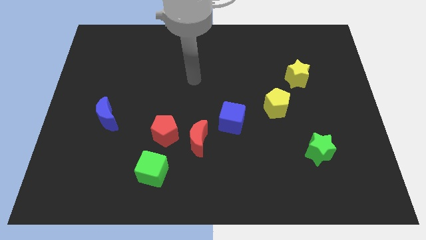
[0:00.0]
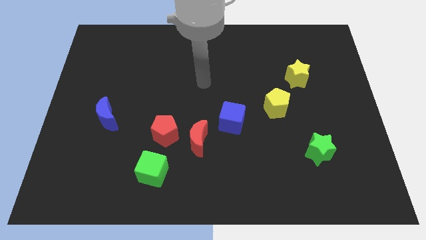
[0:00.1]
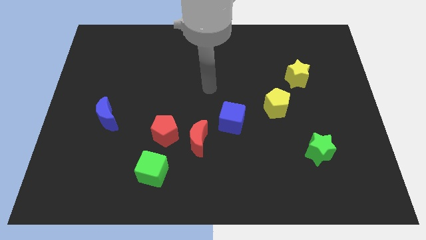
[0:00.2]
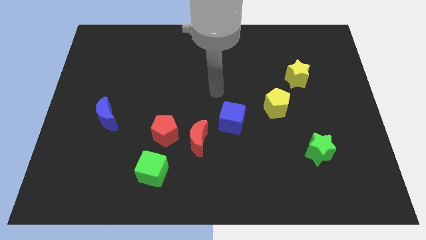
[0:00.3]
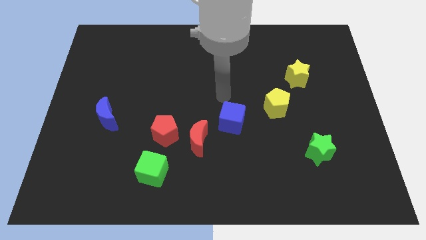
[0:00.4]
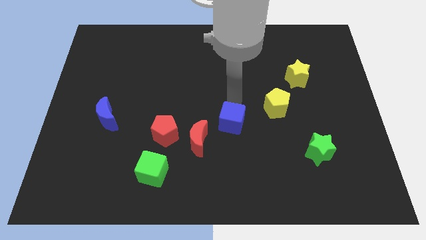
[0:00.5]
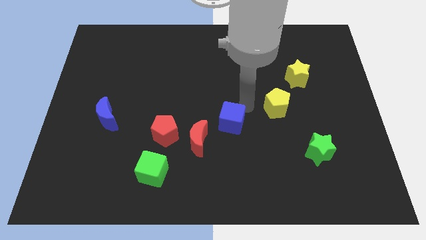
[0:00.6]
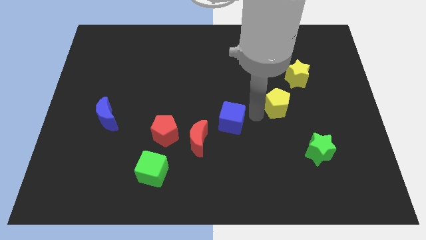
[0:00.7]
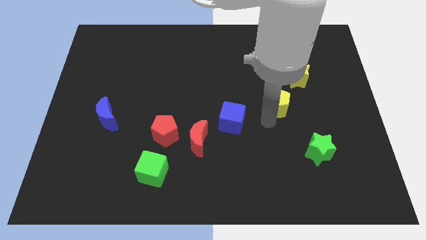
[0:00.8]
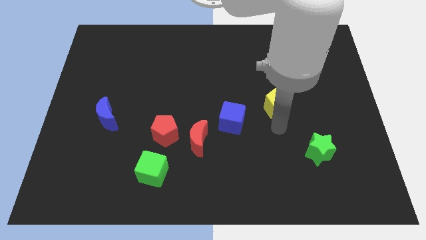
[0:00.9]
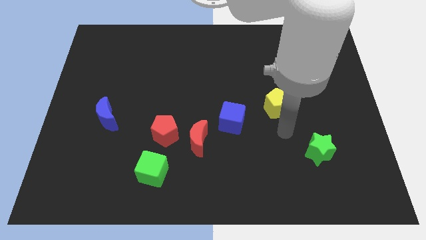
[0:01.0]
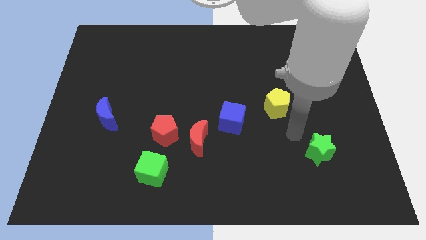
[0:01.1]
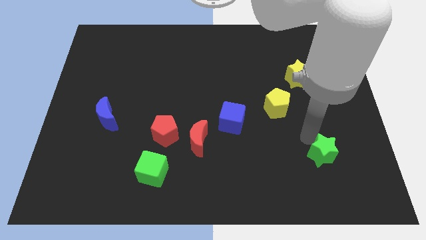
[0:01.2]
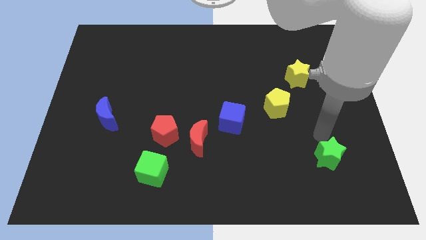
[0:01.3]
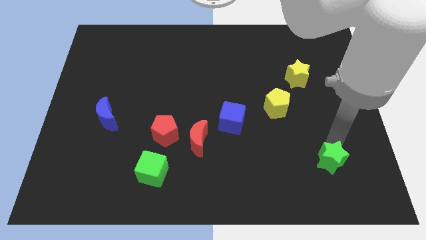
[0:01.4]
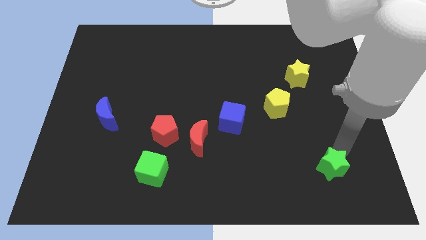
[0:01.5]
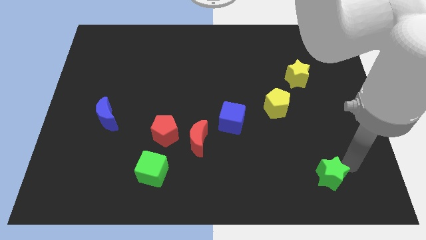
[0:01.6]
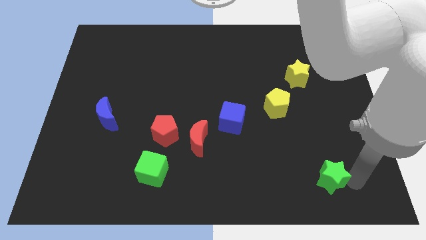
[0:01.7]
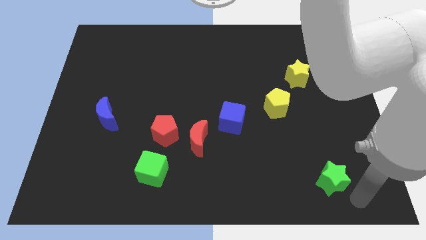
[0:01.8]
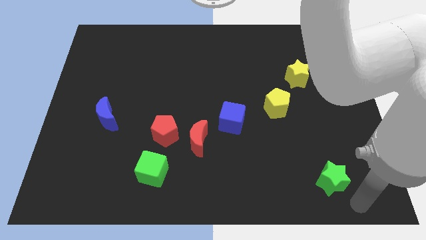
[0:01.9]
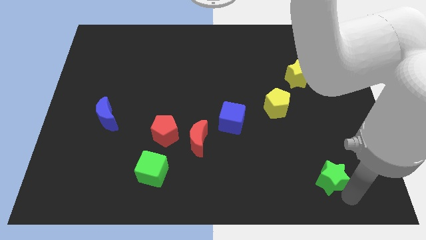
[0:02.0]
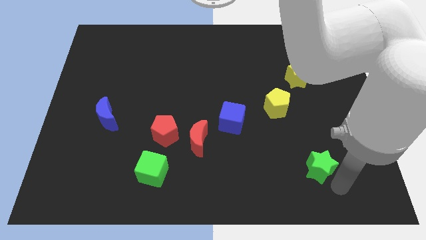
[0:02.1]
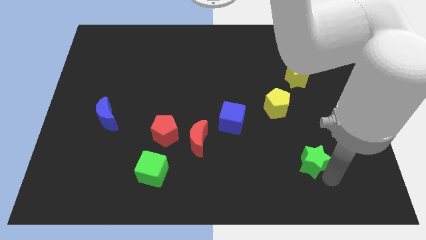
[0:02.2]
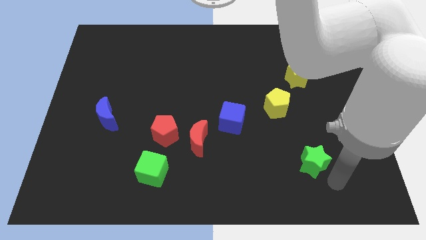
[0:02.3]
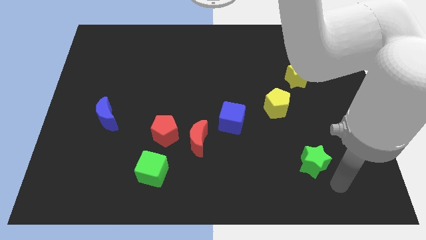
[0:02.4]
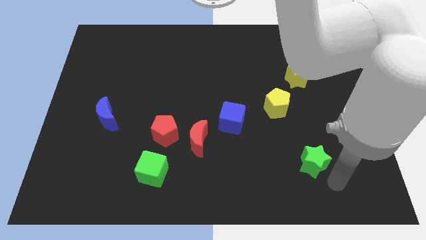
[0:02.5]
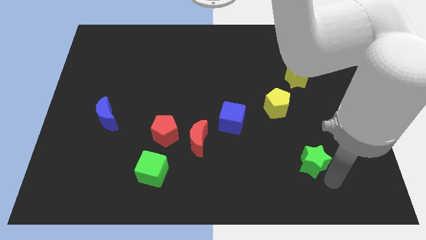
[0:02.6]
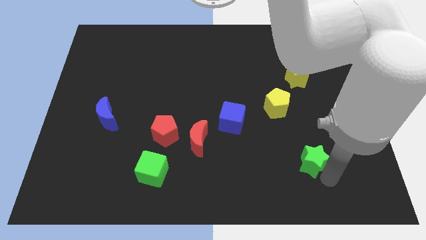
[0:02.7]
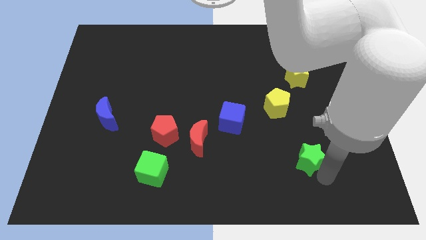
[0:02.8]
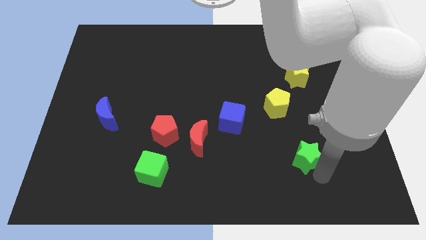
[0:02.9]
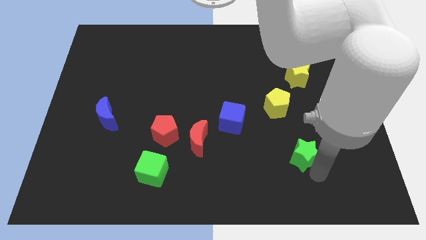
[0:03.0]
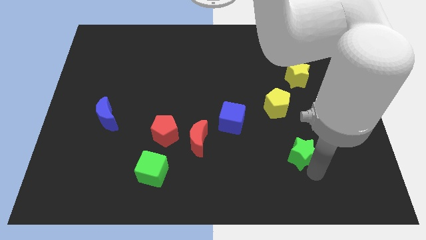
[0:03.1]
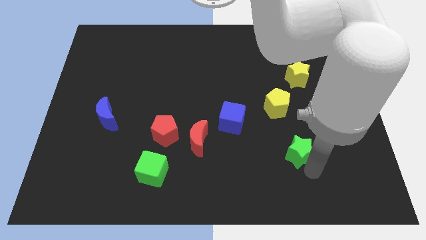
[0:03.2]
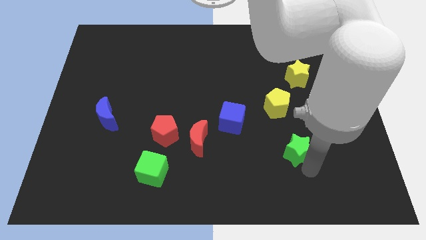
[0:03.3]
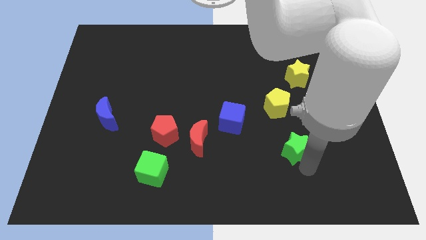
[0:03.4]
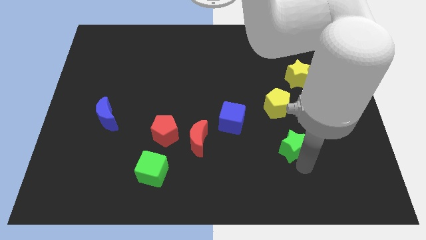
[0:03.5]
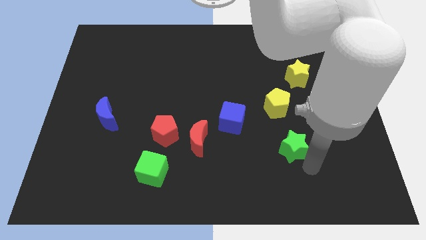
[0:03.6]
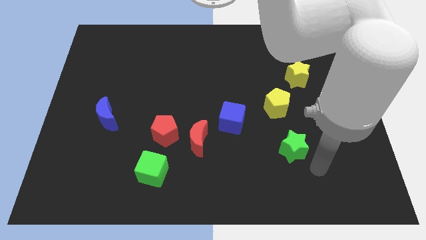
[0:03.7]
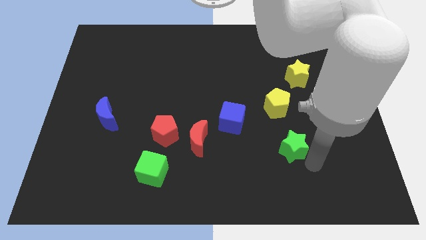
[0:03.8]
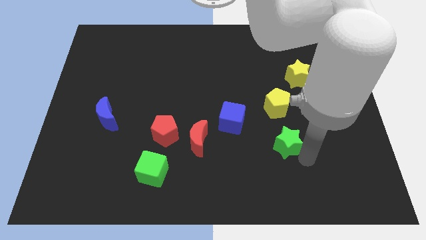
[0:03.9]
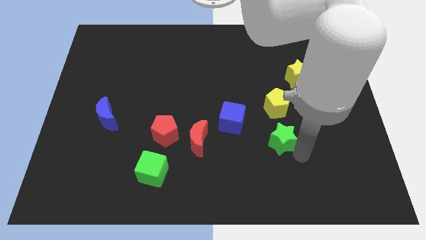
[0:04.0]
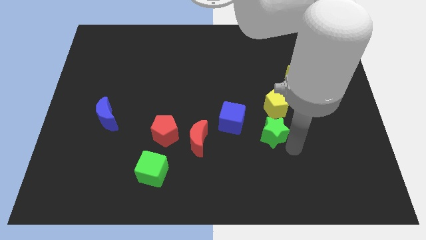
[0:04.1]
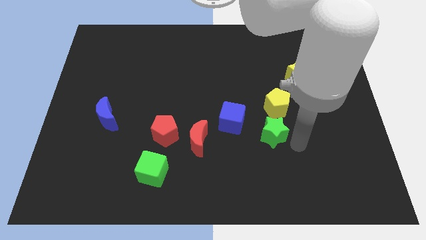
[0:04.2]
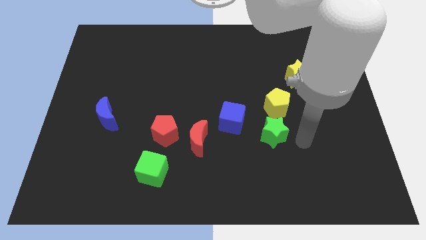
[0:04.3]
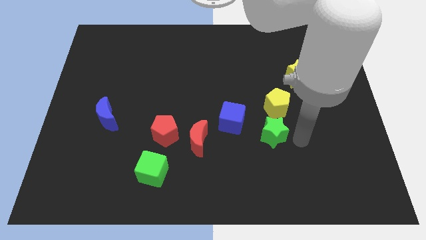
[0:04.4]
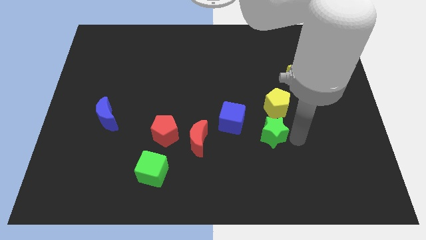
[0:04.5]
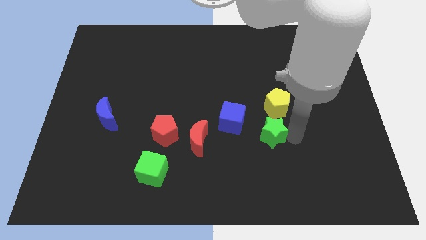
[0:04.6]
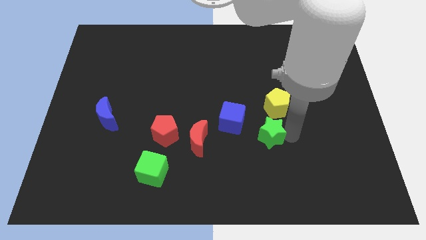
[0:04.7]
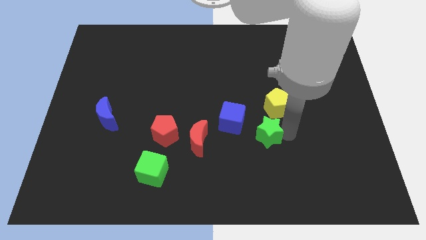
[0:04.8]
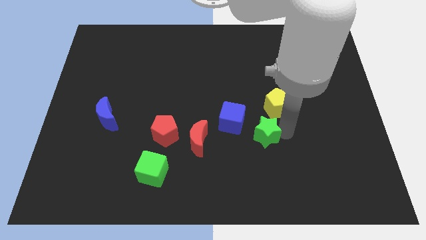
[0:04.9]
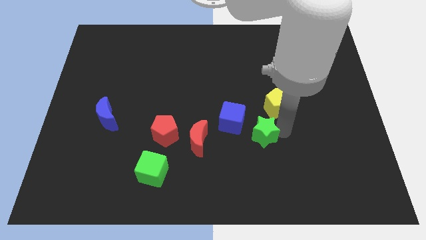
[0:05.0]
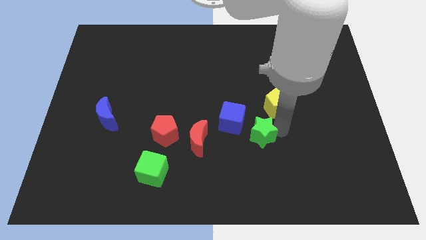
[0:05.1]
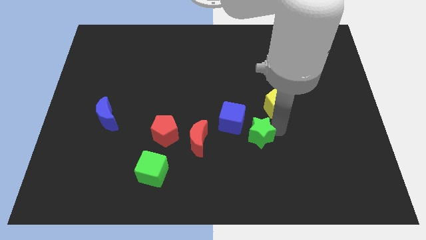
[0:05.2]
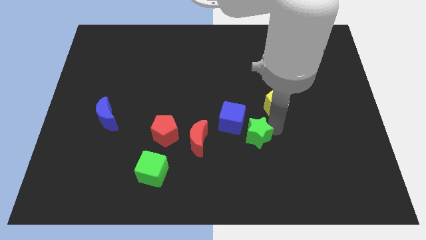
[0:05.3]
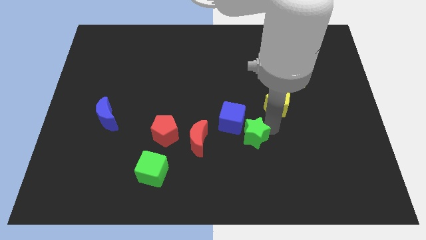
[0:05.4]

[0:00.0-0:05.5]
push the green star close to the blue cube

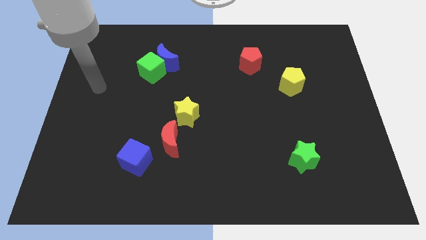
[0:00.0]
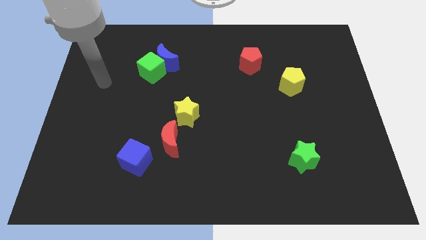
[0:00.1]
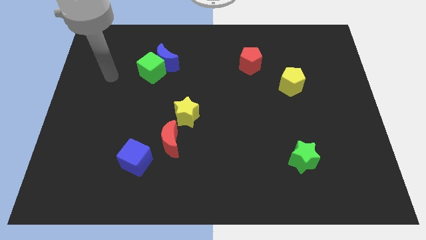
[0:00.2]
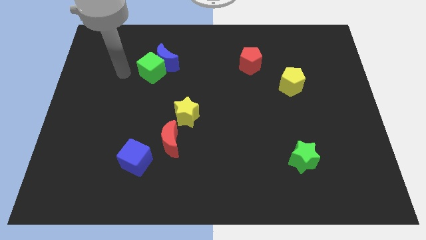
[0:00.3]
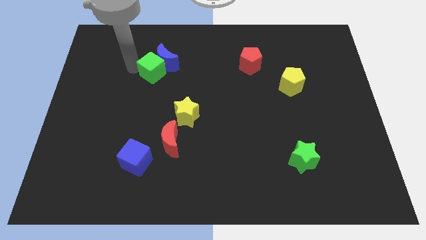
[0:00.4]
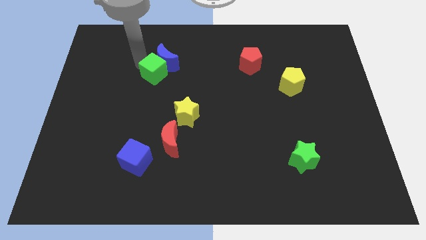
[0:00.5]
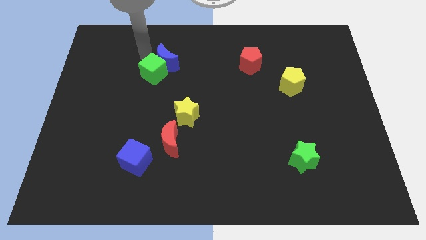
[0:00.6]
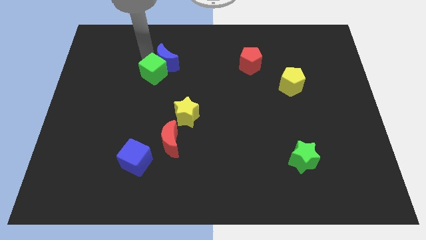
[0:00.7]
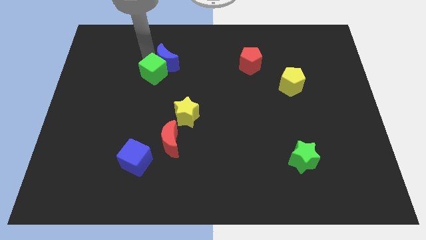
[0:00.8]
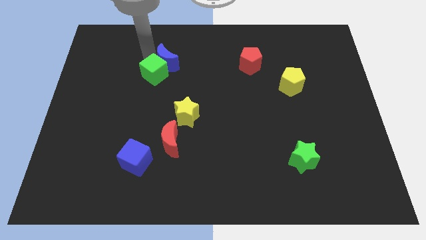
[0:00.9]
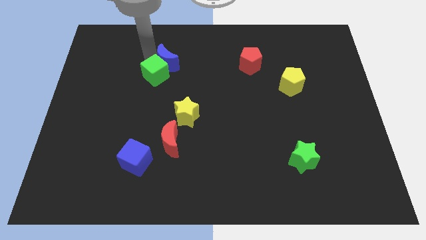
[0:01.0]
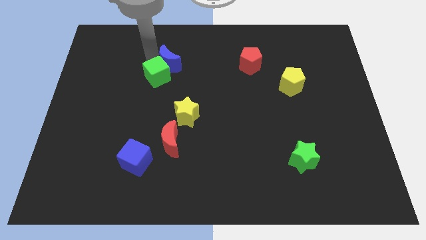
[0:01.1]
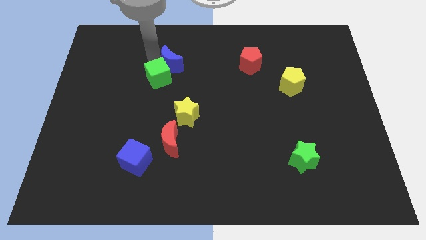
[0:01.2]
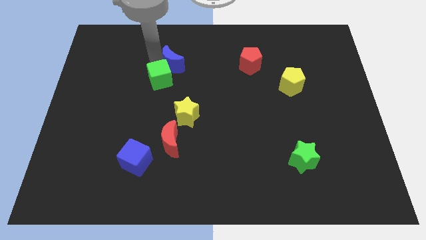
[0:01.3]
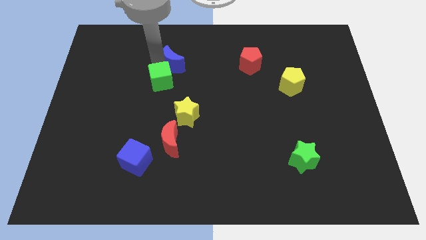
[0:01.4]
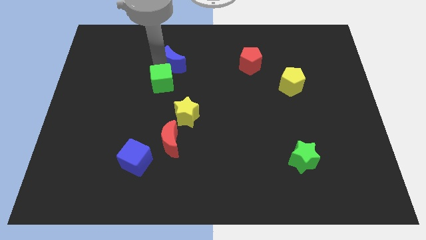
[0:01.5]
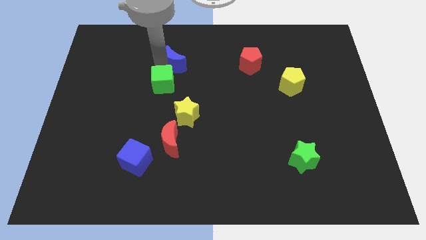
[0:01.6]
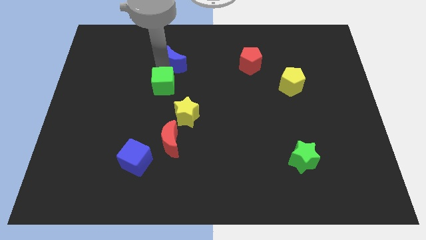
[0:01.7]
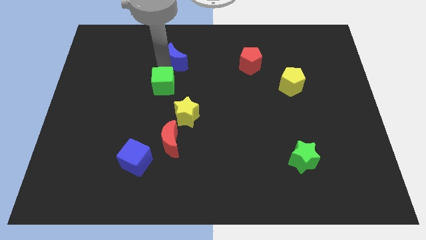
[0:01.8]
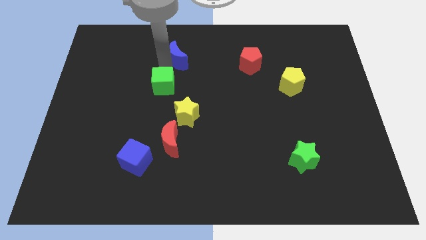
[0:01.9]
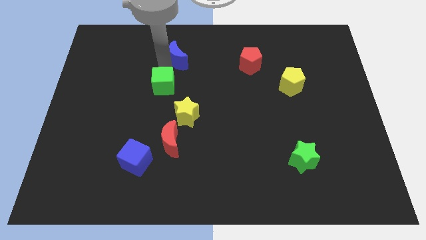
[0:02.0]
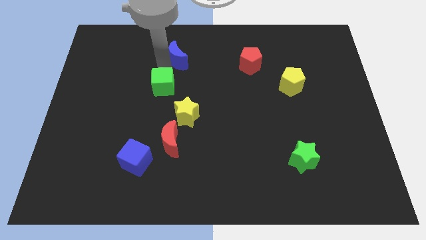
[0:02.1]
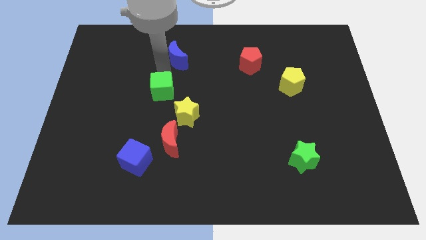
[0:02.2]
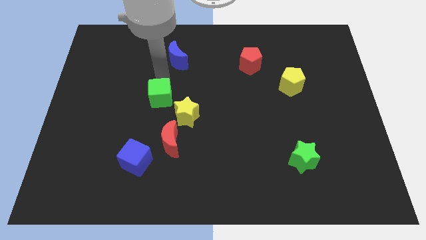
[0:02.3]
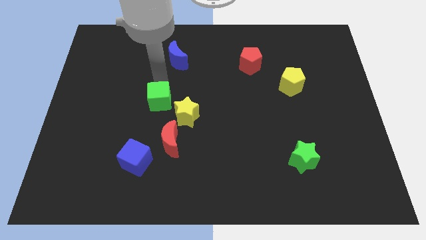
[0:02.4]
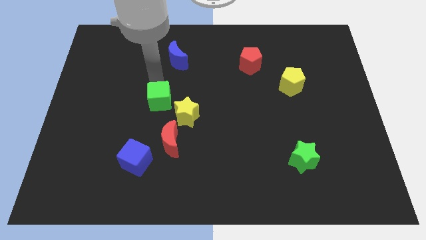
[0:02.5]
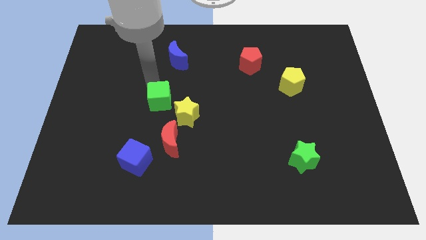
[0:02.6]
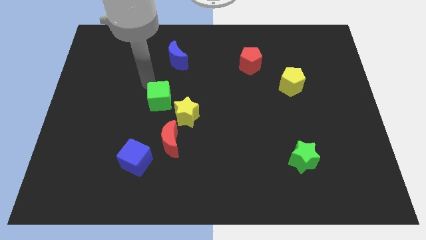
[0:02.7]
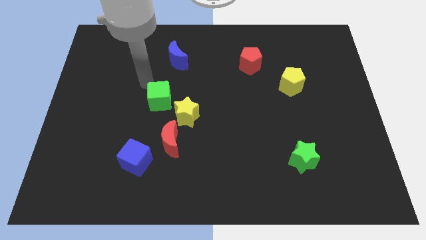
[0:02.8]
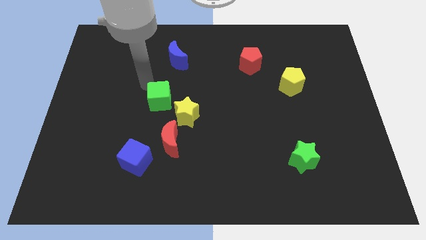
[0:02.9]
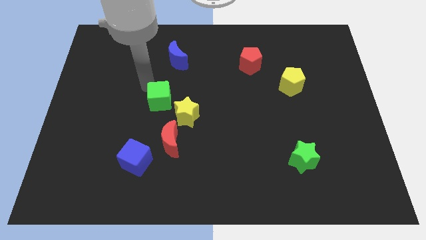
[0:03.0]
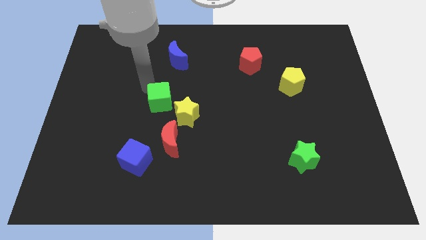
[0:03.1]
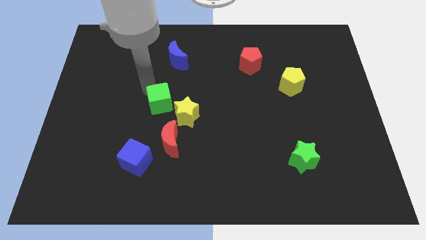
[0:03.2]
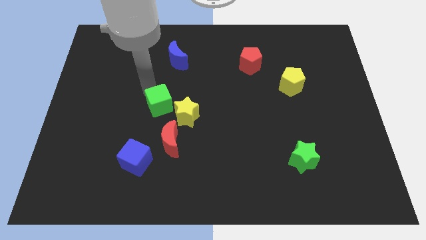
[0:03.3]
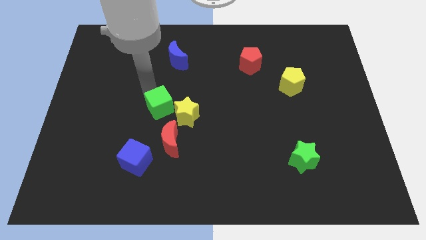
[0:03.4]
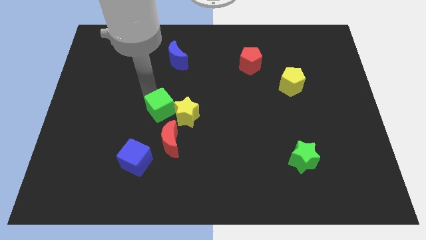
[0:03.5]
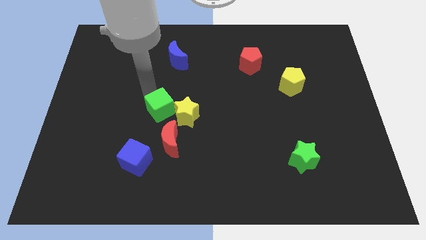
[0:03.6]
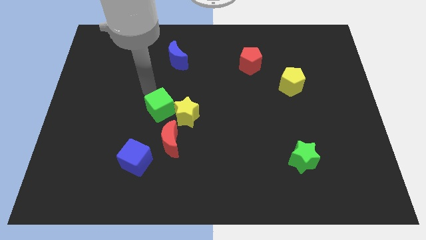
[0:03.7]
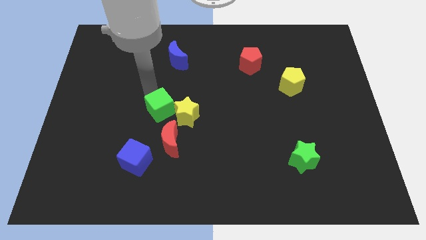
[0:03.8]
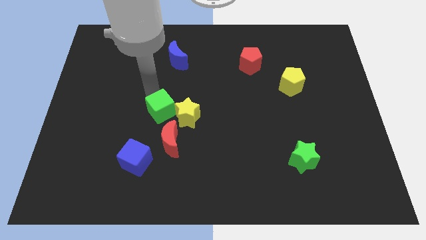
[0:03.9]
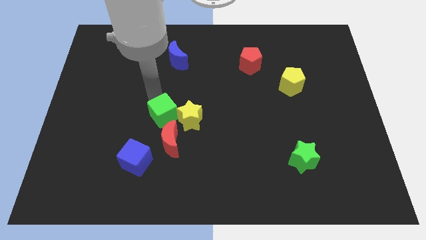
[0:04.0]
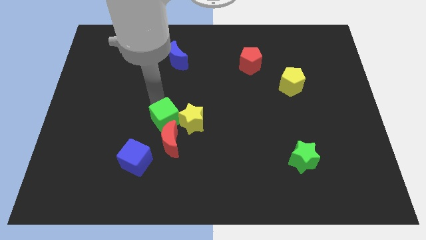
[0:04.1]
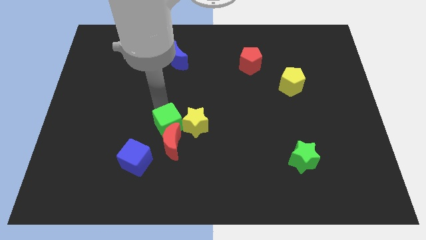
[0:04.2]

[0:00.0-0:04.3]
push the green cube close to the red moon
